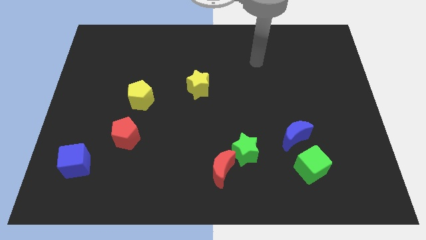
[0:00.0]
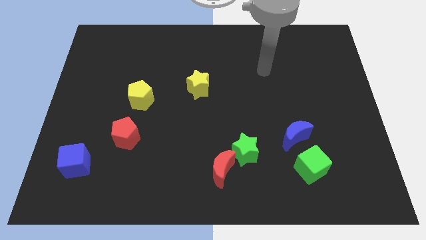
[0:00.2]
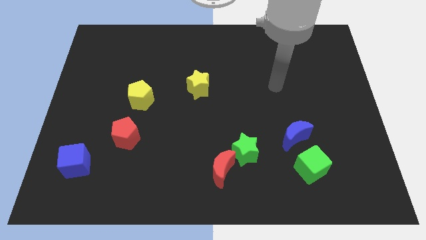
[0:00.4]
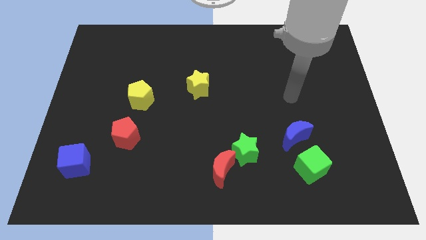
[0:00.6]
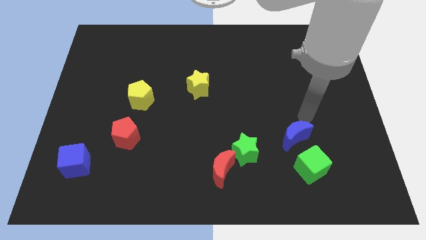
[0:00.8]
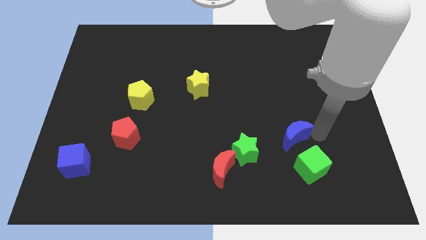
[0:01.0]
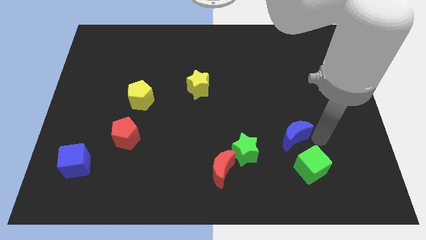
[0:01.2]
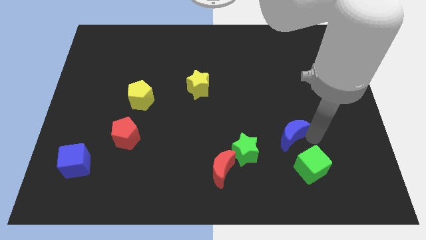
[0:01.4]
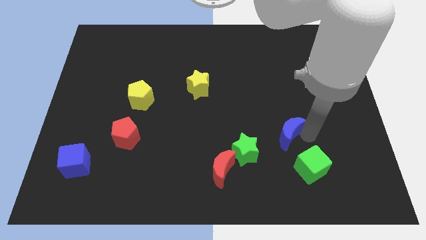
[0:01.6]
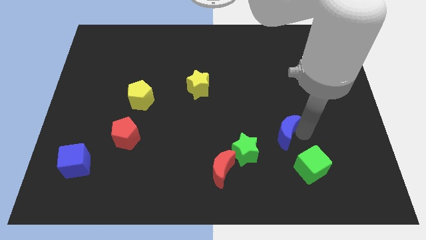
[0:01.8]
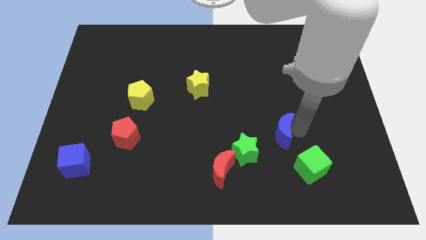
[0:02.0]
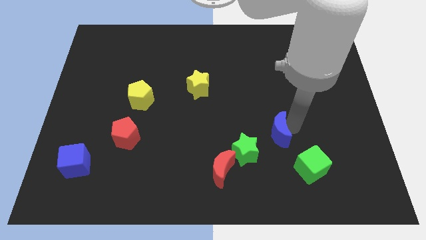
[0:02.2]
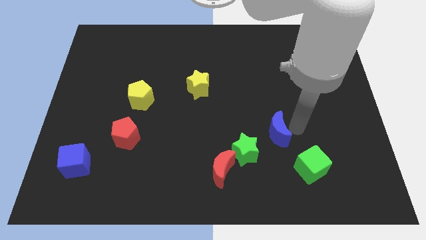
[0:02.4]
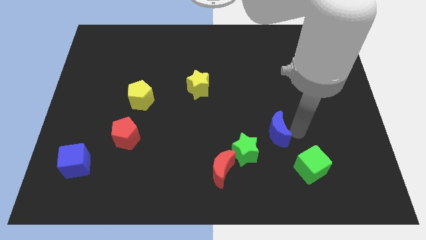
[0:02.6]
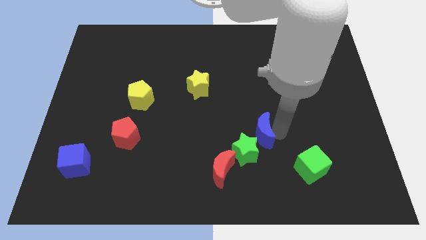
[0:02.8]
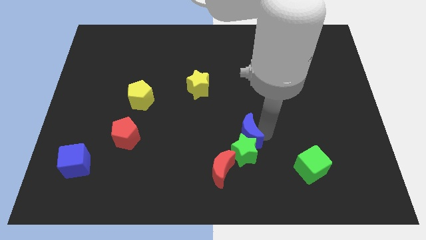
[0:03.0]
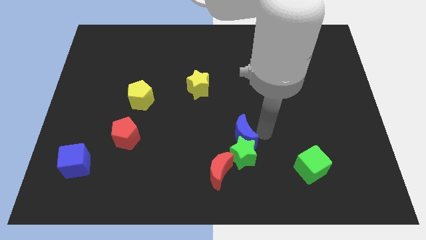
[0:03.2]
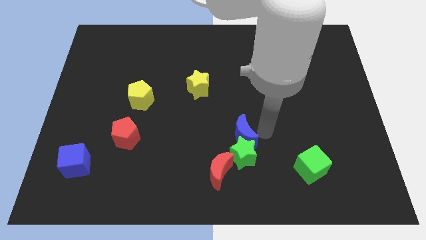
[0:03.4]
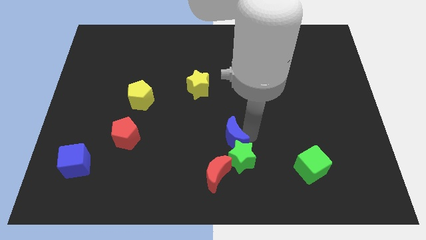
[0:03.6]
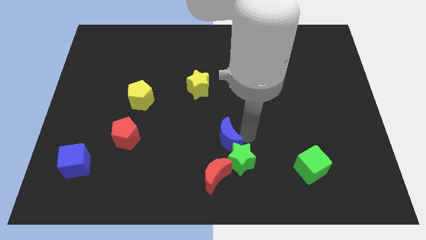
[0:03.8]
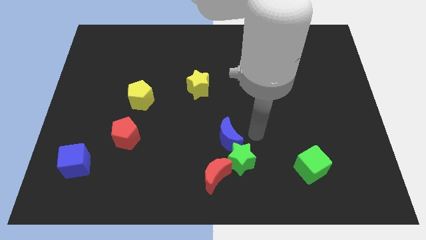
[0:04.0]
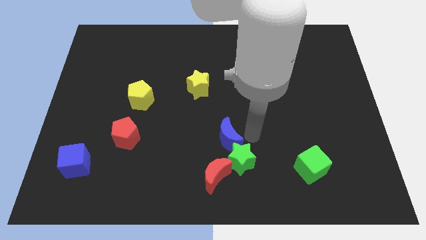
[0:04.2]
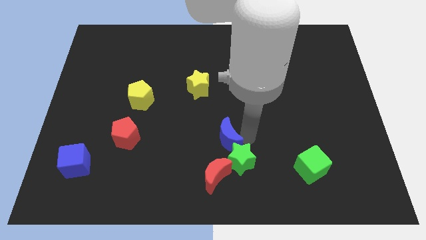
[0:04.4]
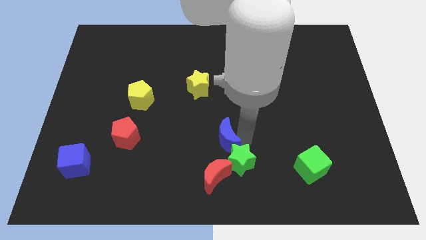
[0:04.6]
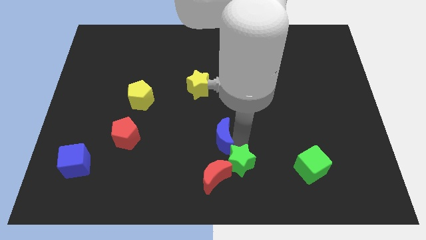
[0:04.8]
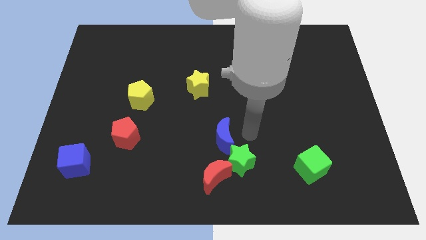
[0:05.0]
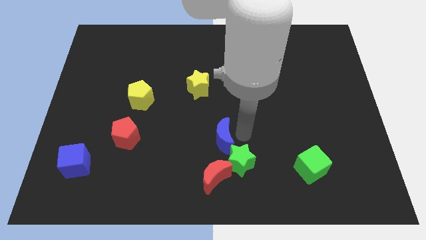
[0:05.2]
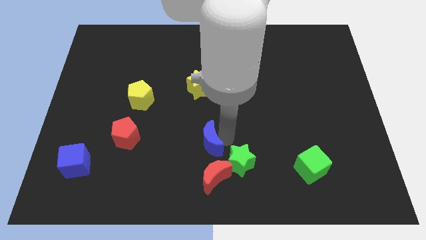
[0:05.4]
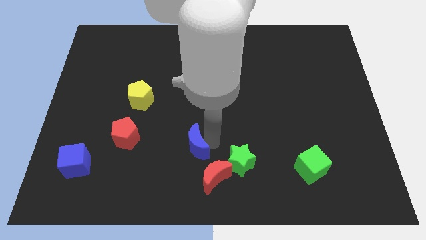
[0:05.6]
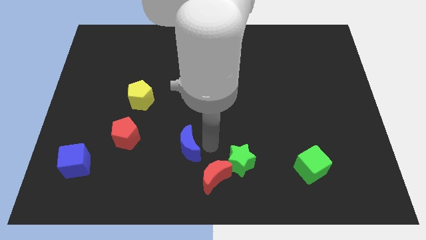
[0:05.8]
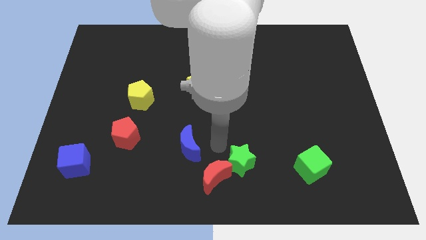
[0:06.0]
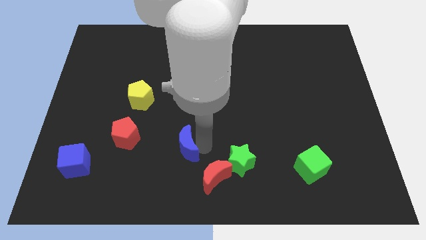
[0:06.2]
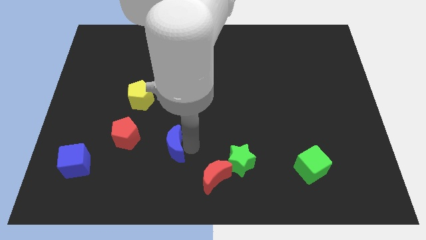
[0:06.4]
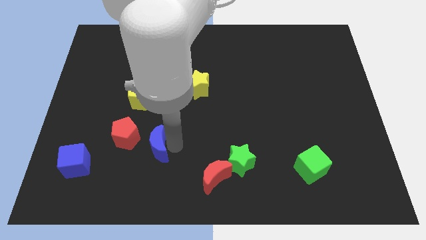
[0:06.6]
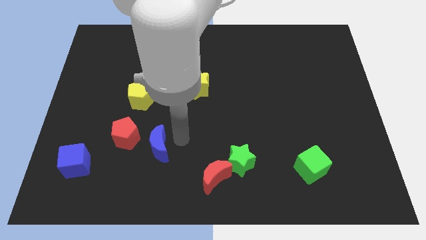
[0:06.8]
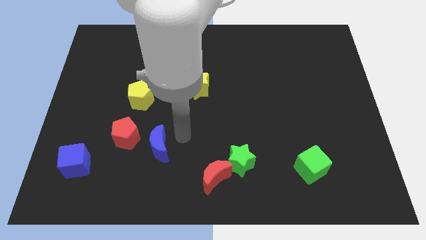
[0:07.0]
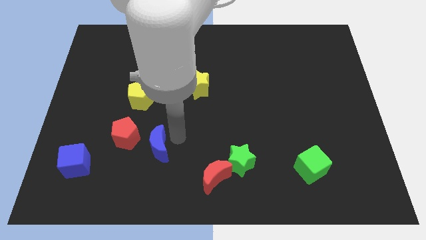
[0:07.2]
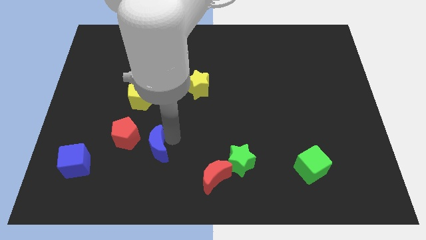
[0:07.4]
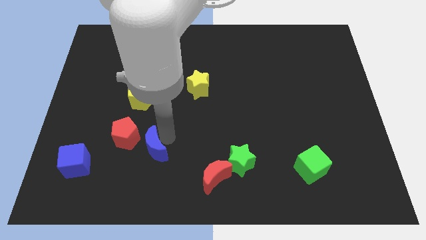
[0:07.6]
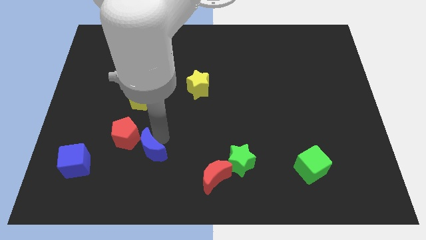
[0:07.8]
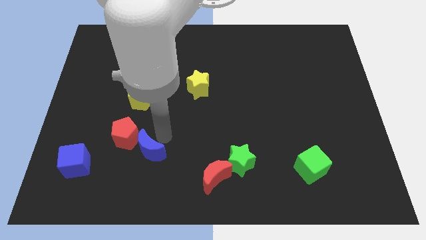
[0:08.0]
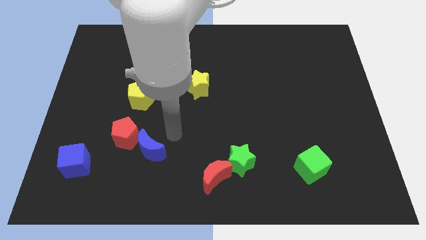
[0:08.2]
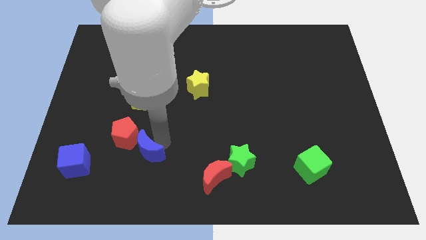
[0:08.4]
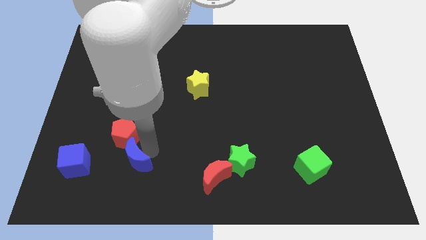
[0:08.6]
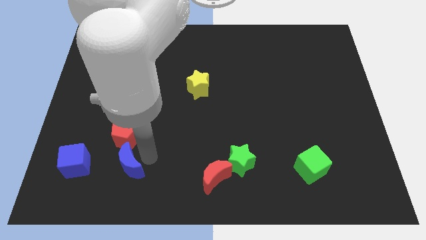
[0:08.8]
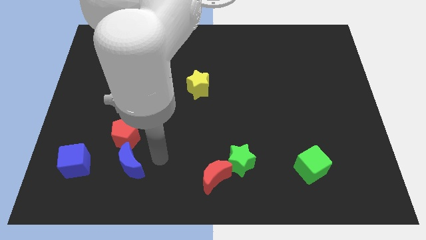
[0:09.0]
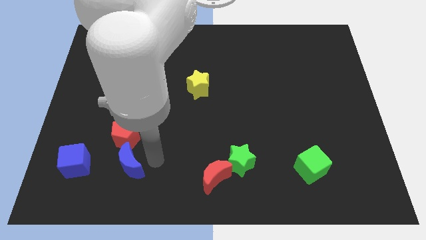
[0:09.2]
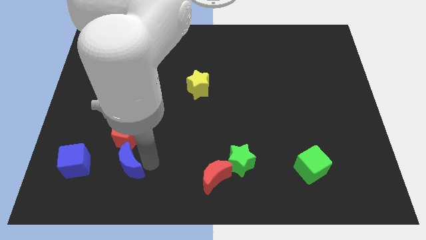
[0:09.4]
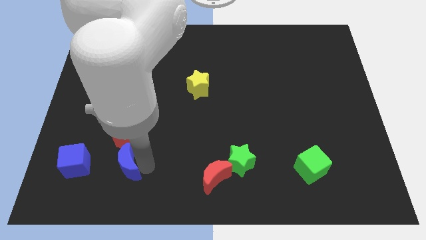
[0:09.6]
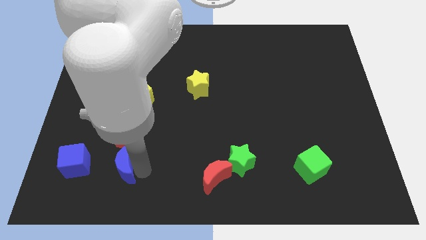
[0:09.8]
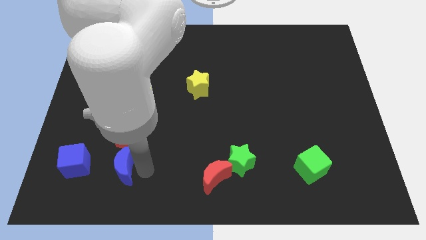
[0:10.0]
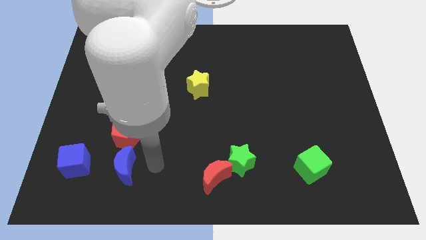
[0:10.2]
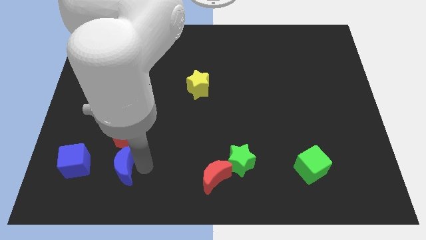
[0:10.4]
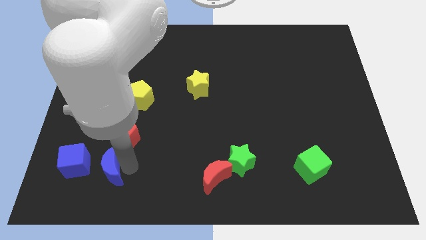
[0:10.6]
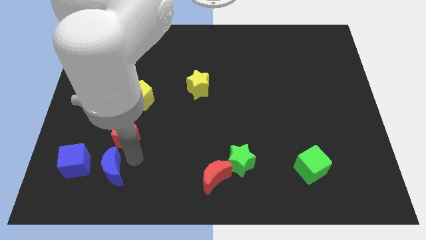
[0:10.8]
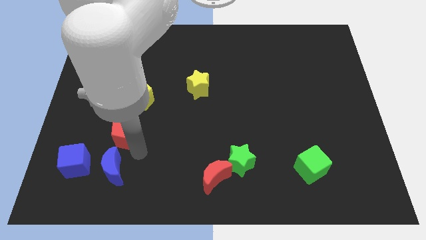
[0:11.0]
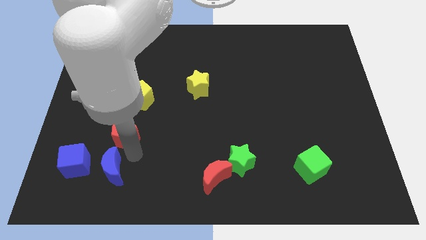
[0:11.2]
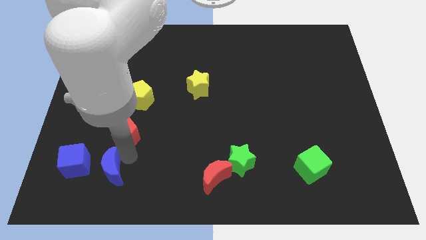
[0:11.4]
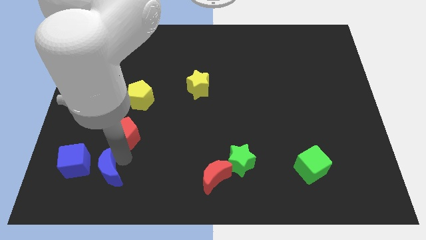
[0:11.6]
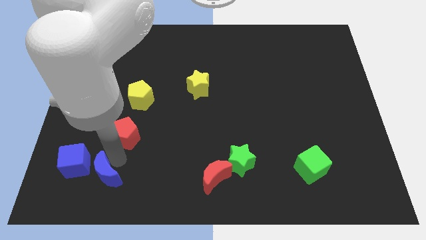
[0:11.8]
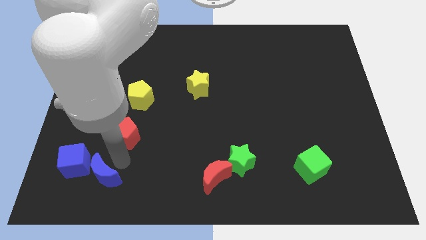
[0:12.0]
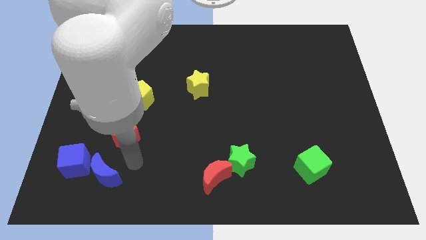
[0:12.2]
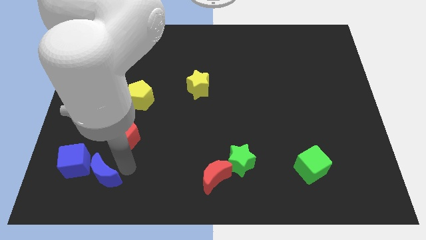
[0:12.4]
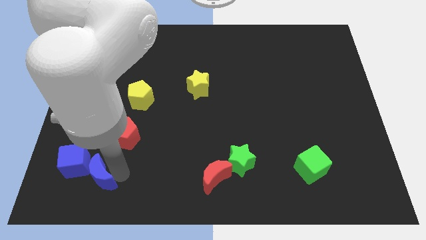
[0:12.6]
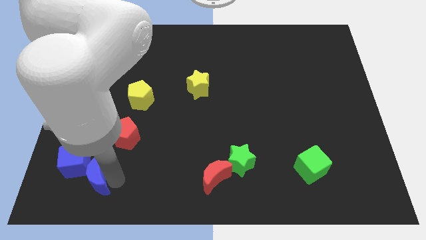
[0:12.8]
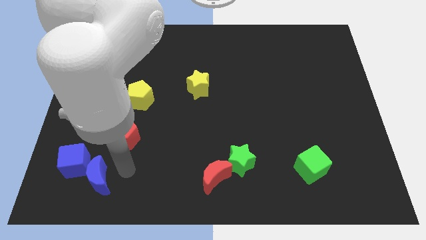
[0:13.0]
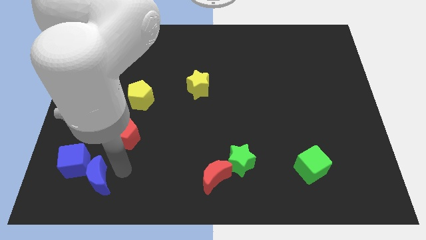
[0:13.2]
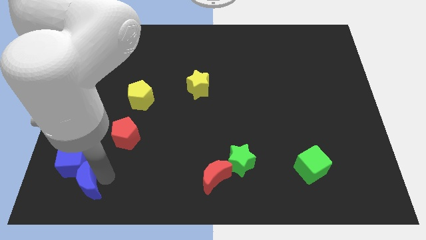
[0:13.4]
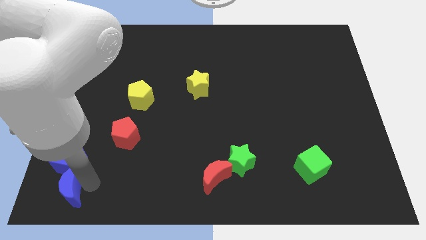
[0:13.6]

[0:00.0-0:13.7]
move the blue moon to the lower left corner
